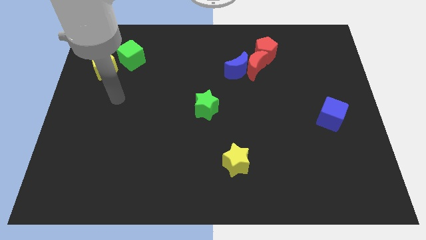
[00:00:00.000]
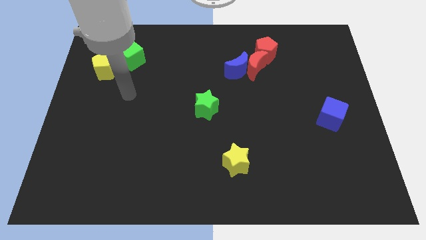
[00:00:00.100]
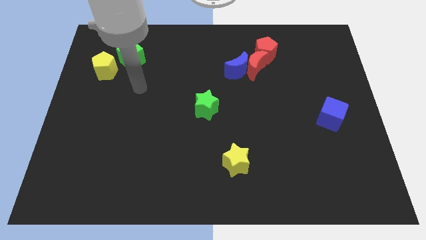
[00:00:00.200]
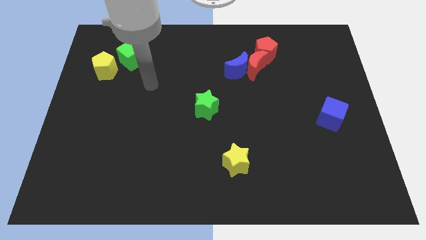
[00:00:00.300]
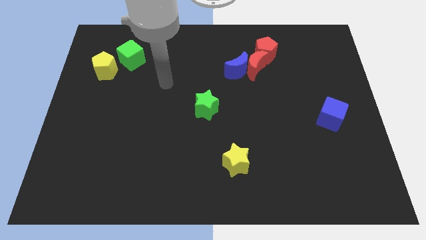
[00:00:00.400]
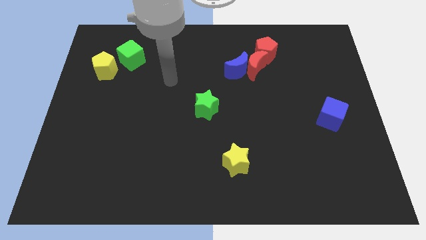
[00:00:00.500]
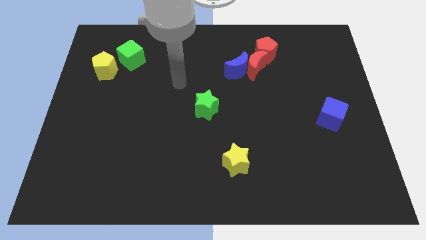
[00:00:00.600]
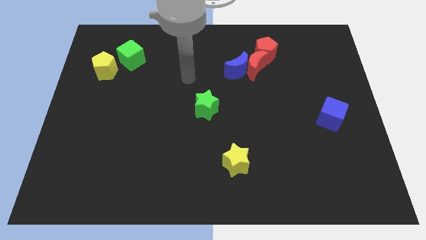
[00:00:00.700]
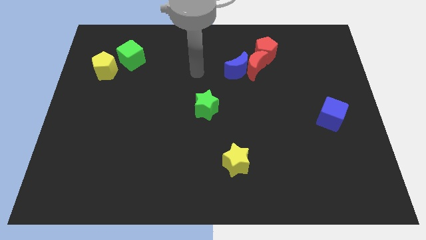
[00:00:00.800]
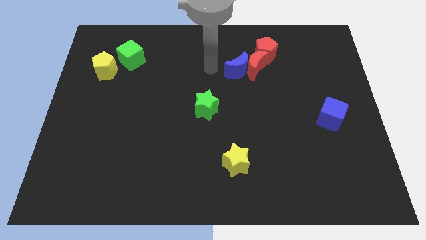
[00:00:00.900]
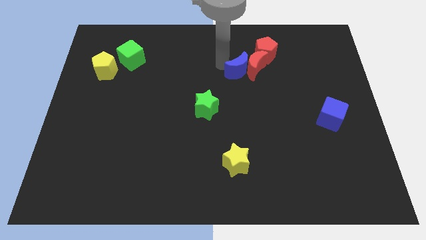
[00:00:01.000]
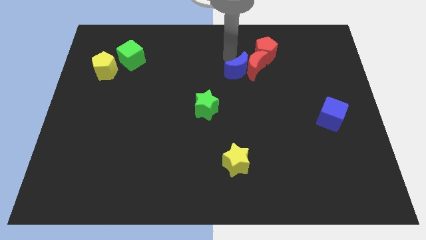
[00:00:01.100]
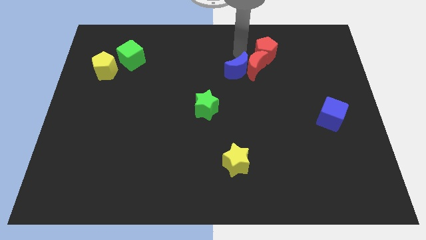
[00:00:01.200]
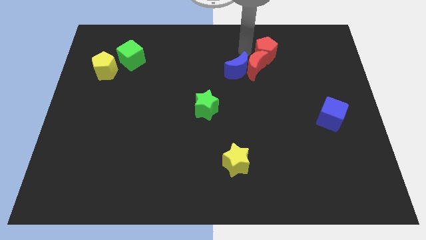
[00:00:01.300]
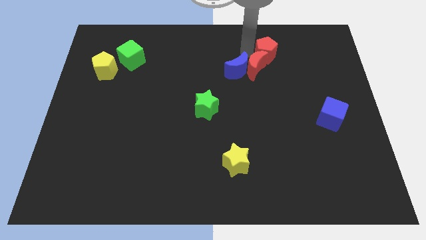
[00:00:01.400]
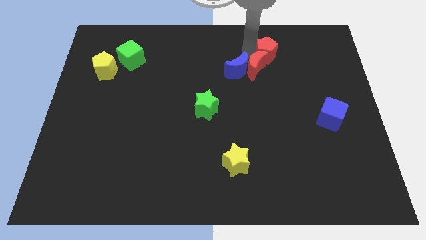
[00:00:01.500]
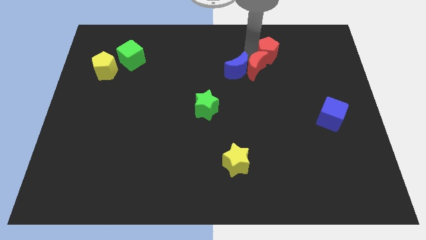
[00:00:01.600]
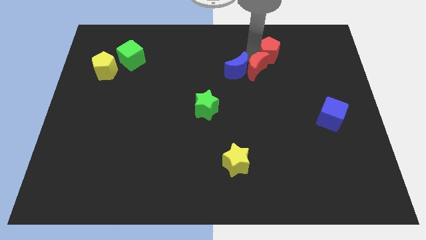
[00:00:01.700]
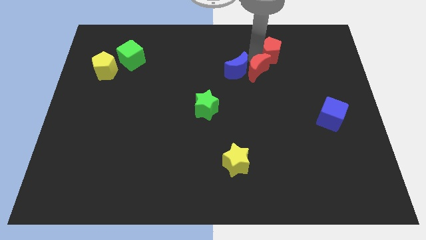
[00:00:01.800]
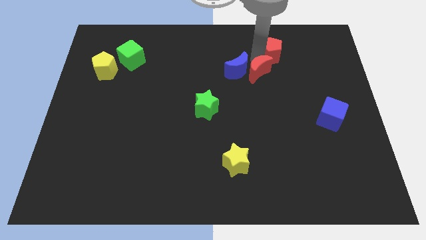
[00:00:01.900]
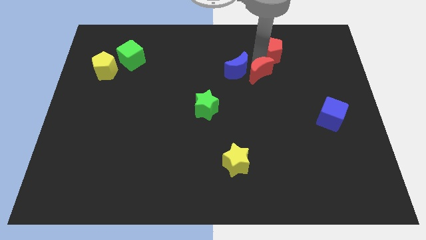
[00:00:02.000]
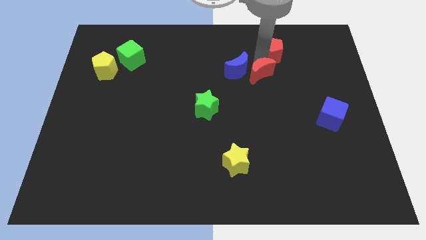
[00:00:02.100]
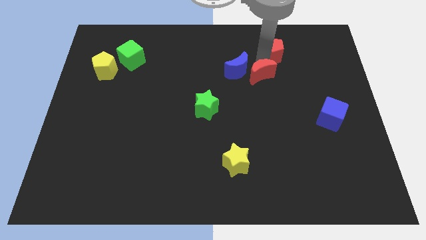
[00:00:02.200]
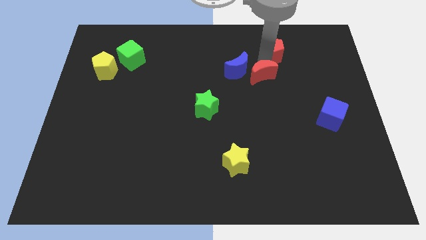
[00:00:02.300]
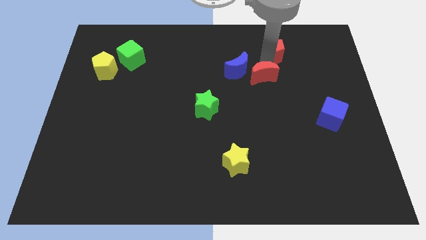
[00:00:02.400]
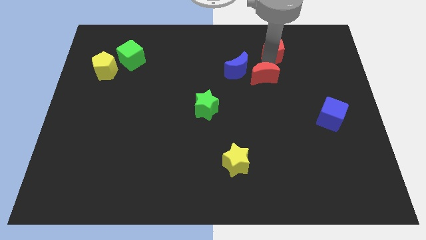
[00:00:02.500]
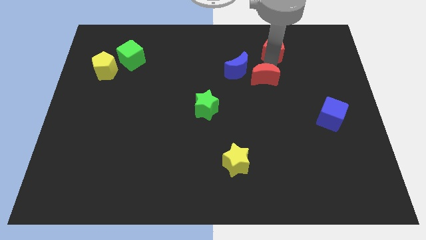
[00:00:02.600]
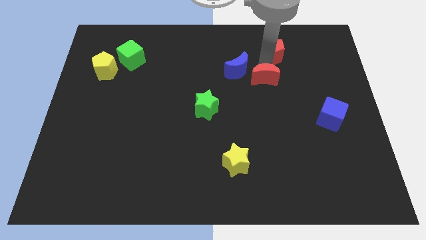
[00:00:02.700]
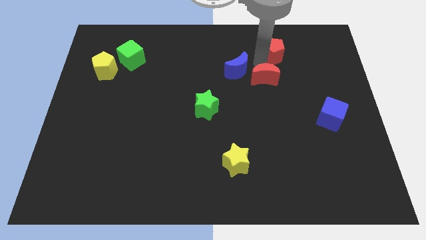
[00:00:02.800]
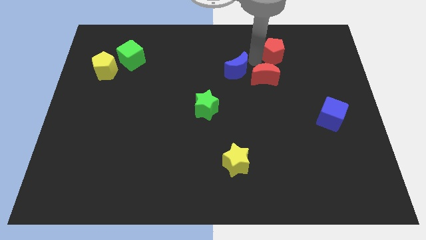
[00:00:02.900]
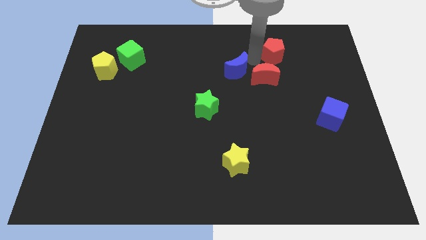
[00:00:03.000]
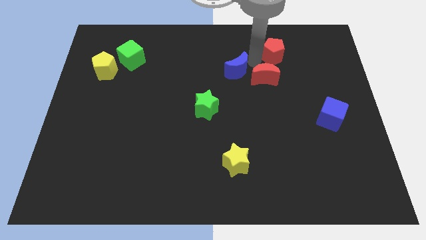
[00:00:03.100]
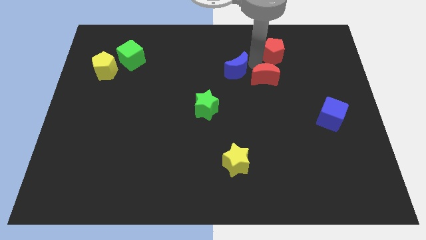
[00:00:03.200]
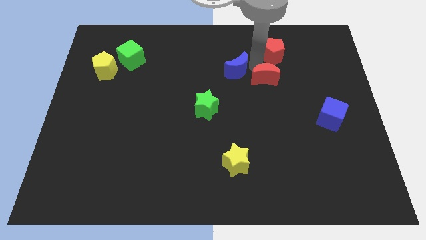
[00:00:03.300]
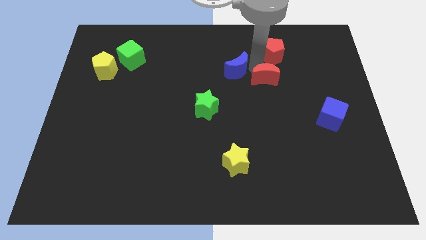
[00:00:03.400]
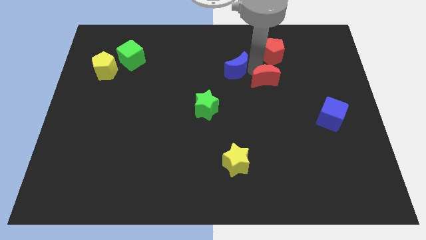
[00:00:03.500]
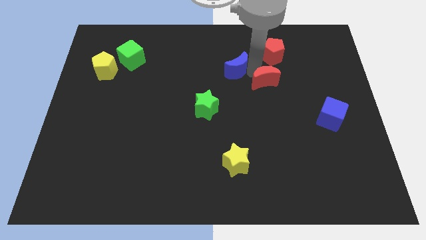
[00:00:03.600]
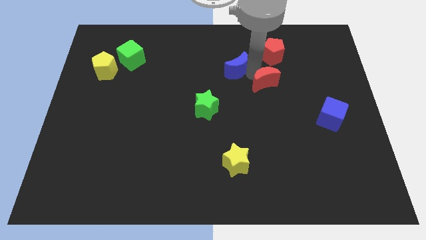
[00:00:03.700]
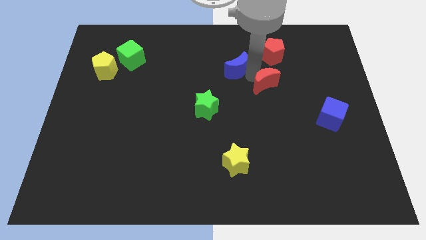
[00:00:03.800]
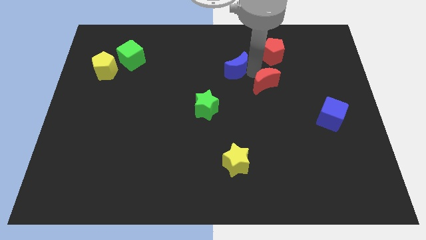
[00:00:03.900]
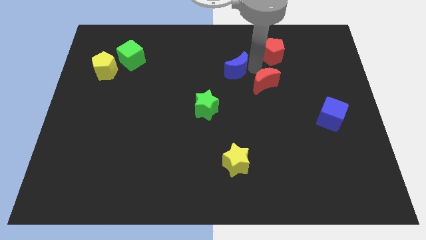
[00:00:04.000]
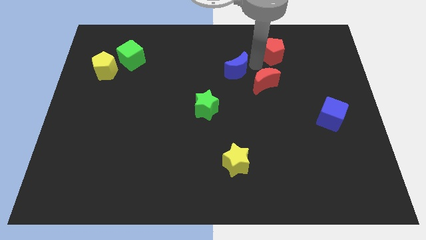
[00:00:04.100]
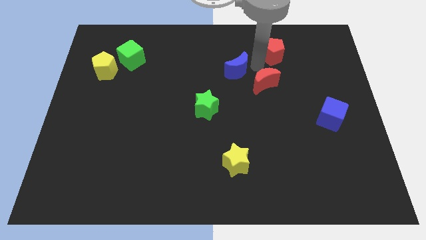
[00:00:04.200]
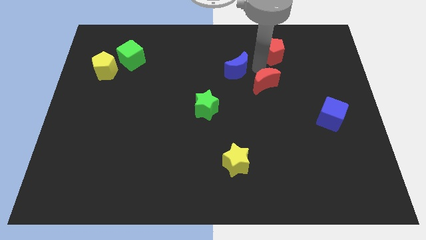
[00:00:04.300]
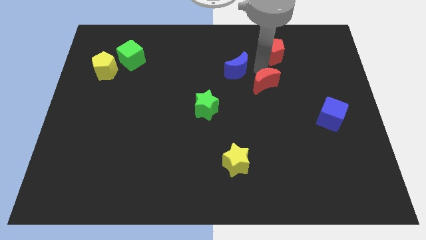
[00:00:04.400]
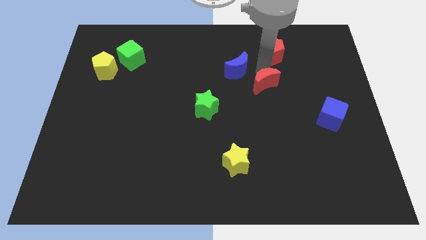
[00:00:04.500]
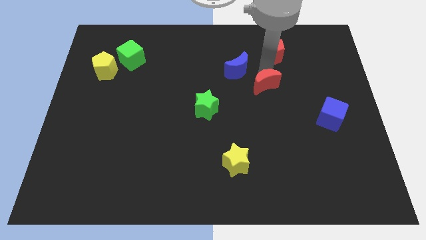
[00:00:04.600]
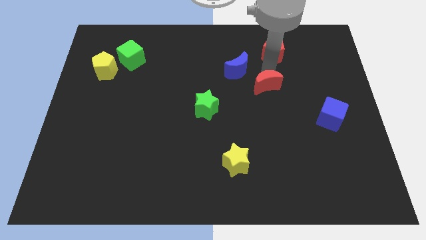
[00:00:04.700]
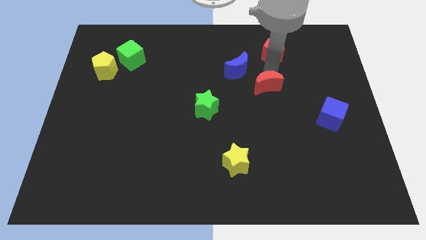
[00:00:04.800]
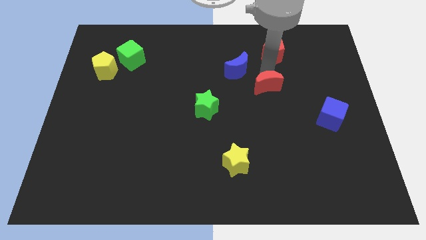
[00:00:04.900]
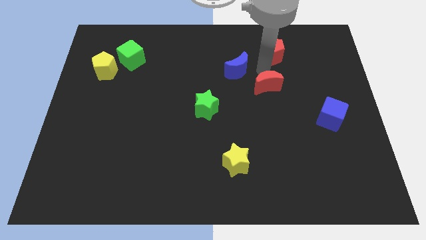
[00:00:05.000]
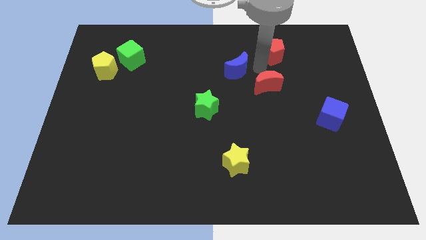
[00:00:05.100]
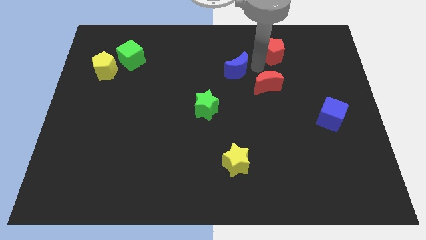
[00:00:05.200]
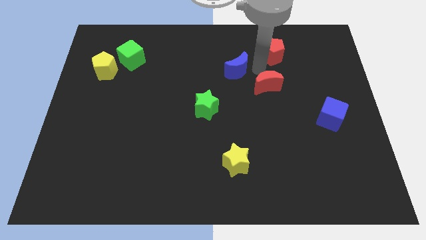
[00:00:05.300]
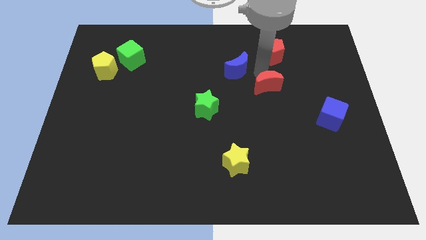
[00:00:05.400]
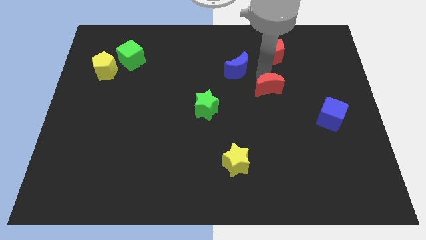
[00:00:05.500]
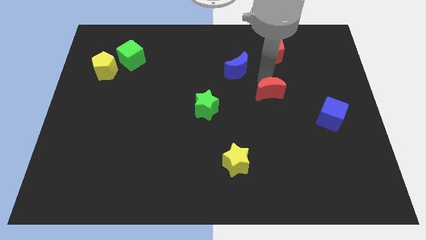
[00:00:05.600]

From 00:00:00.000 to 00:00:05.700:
pull the red moon apart from the blue moon and red pentagon

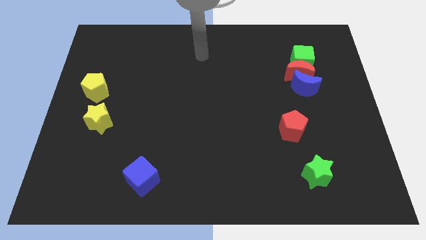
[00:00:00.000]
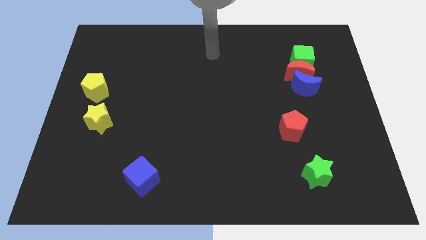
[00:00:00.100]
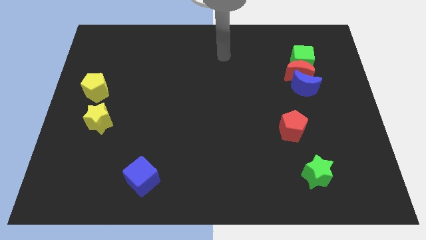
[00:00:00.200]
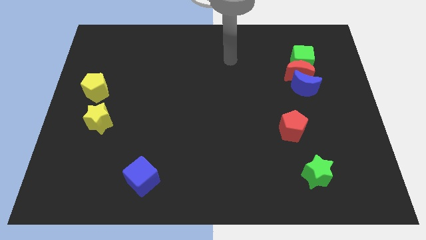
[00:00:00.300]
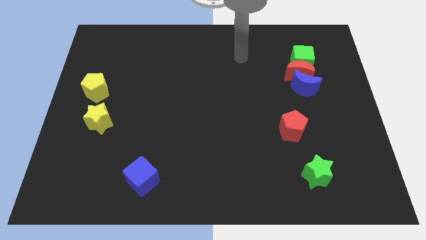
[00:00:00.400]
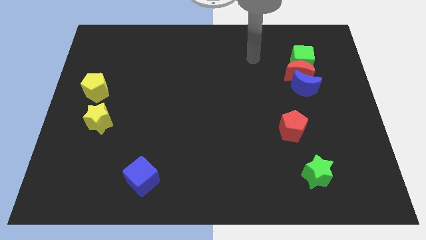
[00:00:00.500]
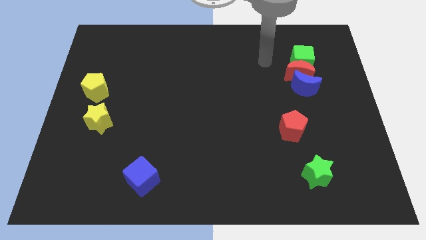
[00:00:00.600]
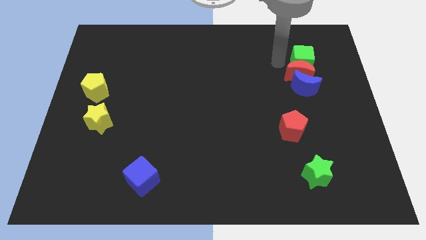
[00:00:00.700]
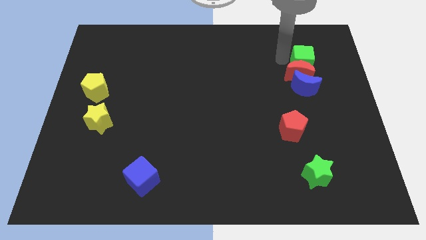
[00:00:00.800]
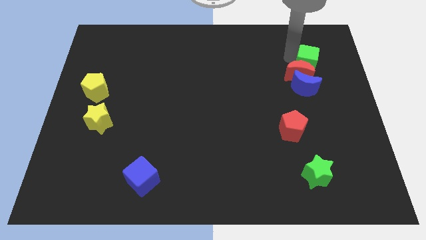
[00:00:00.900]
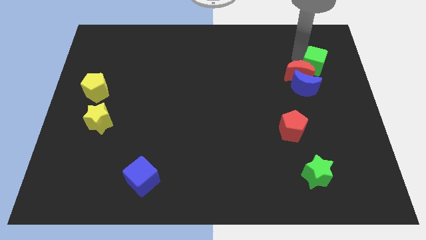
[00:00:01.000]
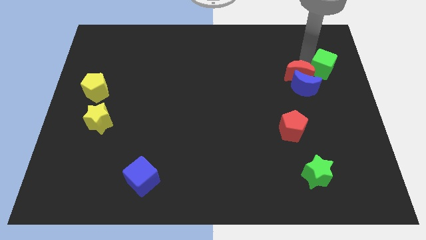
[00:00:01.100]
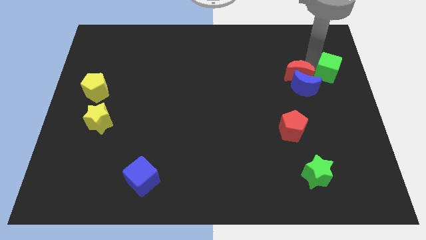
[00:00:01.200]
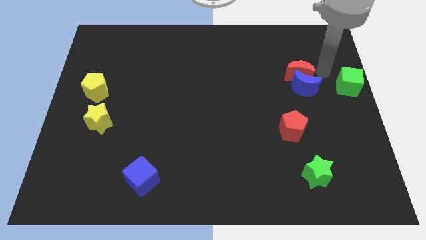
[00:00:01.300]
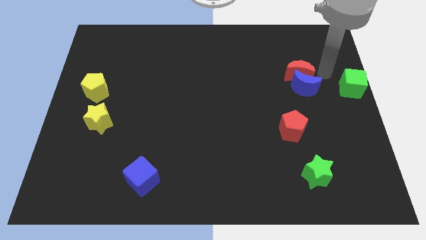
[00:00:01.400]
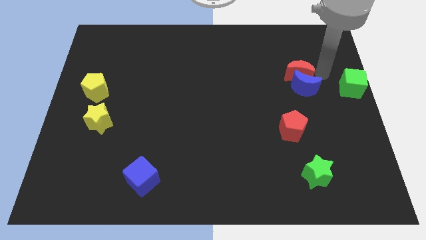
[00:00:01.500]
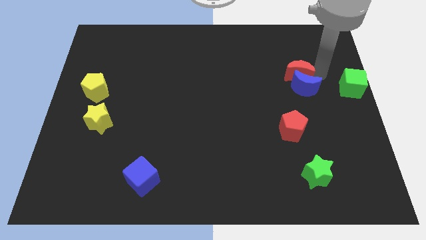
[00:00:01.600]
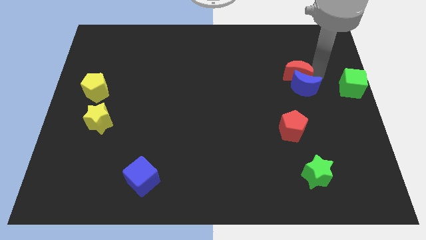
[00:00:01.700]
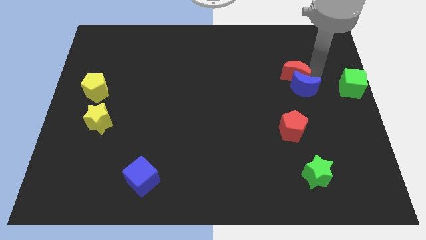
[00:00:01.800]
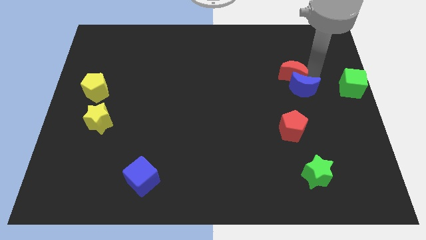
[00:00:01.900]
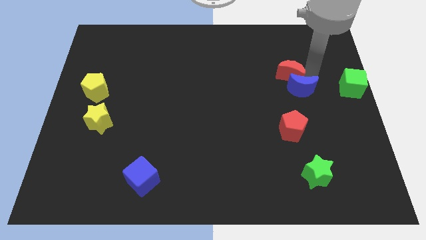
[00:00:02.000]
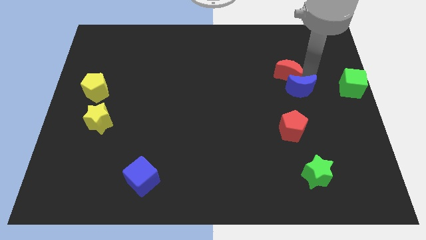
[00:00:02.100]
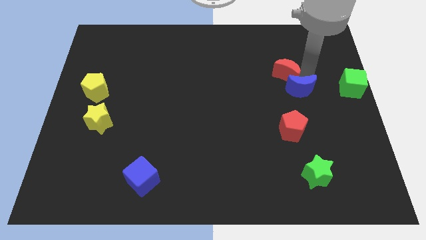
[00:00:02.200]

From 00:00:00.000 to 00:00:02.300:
pull the red moon apart from the blue moon and green cube

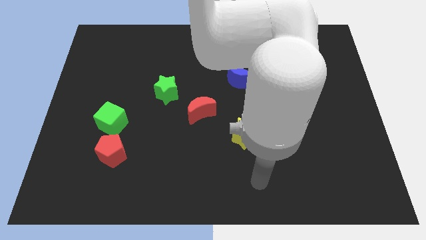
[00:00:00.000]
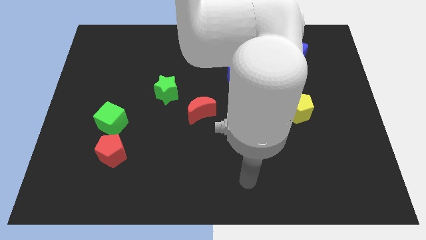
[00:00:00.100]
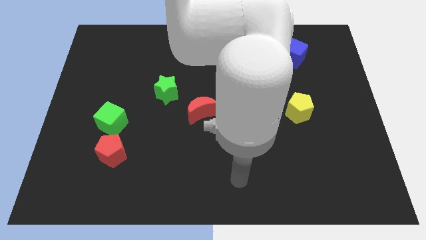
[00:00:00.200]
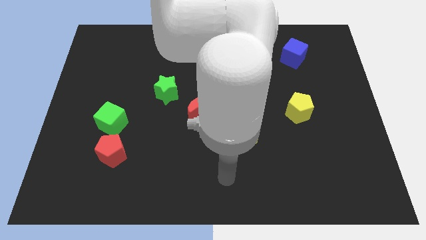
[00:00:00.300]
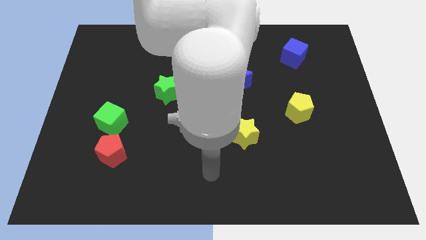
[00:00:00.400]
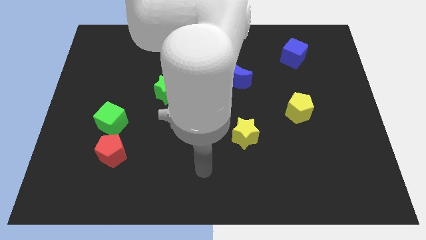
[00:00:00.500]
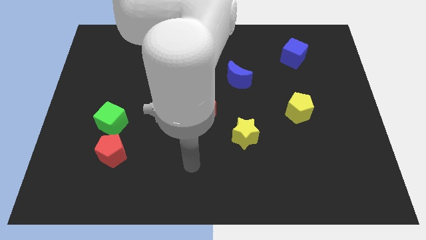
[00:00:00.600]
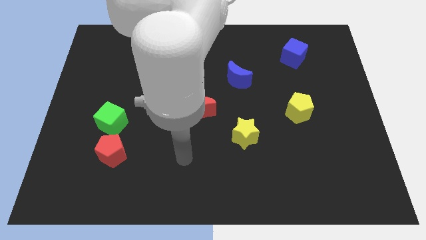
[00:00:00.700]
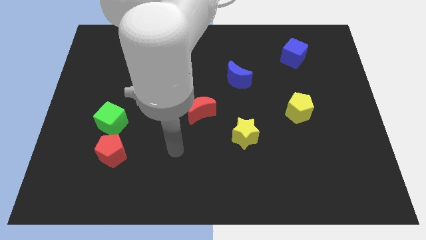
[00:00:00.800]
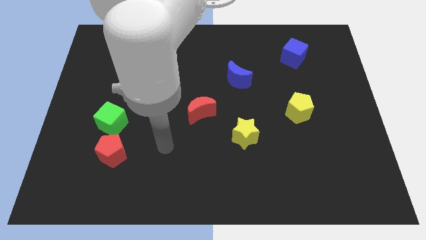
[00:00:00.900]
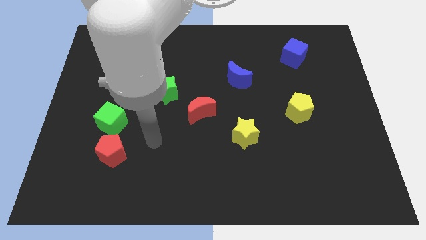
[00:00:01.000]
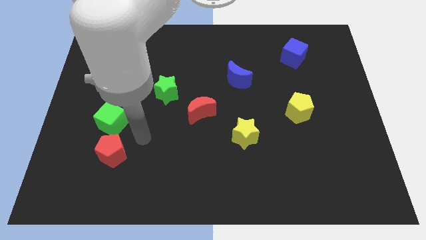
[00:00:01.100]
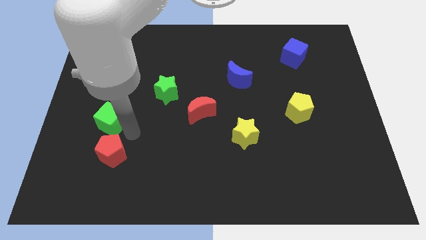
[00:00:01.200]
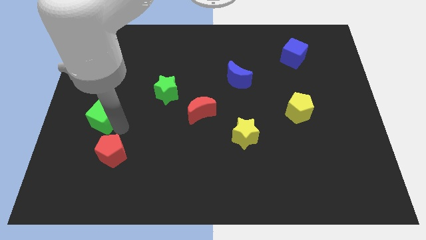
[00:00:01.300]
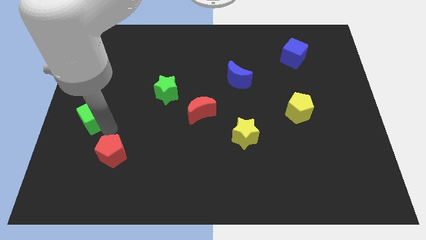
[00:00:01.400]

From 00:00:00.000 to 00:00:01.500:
separate the red pentagon from the green cube
